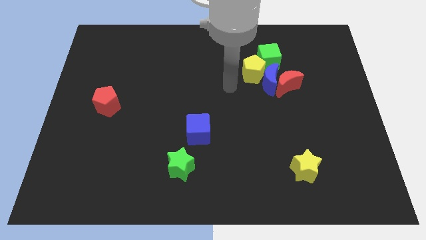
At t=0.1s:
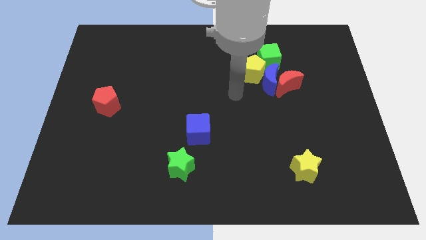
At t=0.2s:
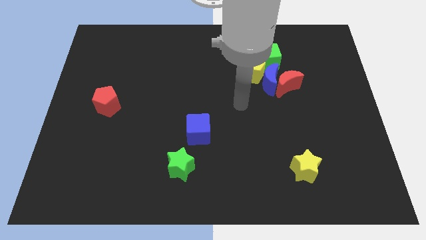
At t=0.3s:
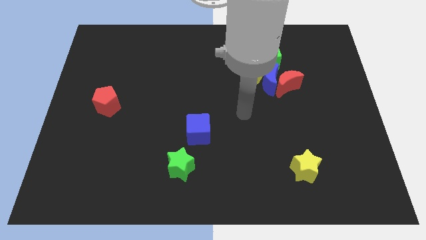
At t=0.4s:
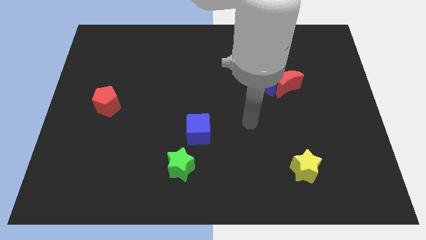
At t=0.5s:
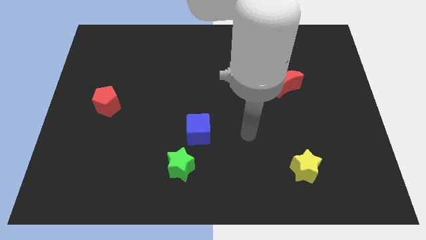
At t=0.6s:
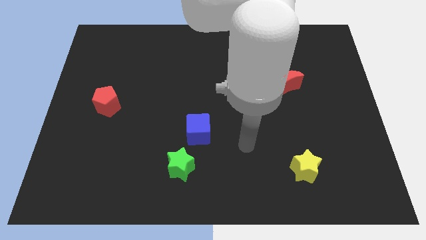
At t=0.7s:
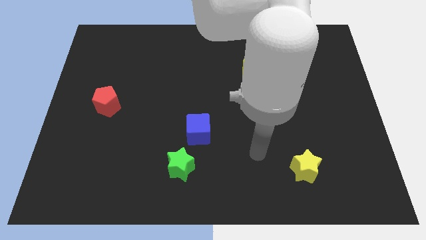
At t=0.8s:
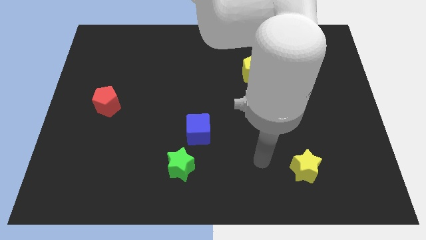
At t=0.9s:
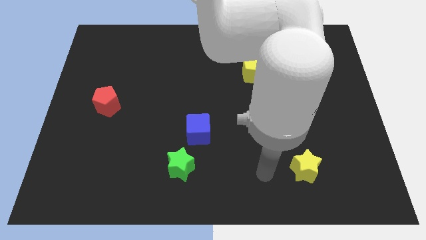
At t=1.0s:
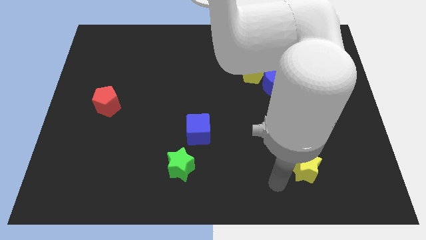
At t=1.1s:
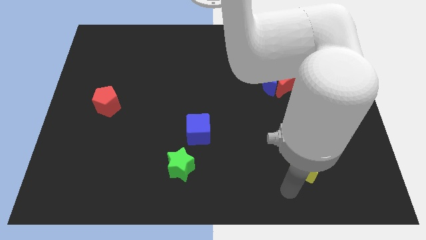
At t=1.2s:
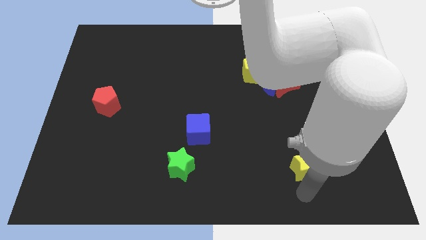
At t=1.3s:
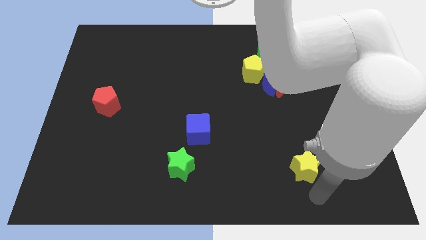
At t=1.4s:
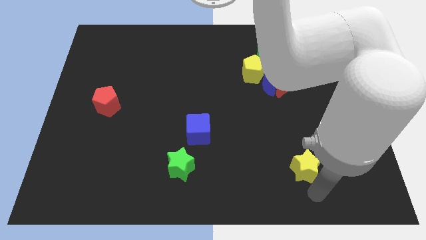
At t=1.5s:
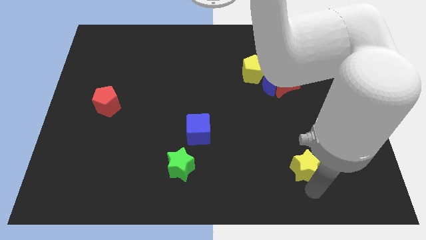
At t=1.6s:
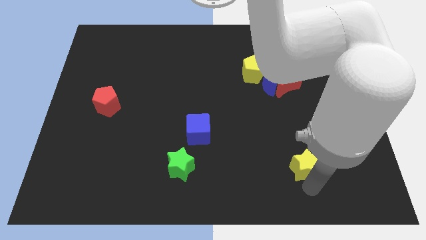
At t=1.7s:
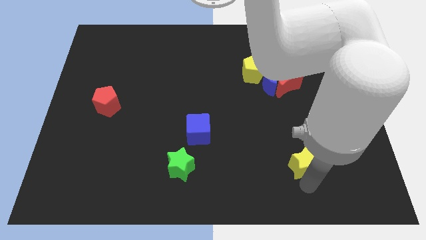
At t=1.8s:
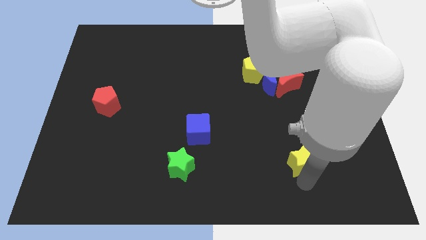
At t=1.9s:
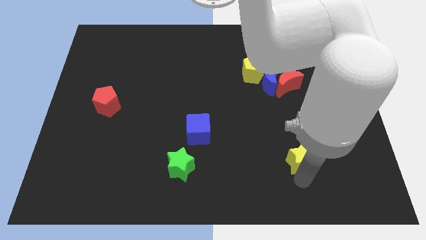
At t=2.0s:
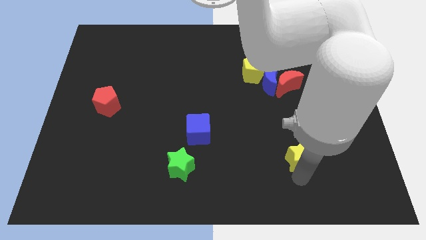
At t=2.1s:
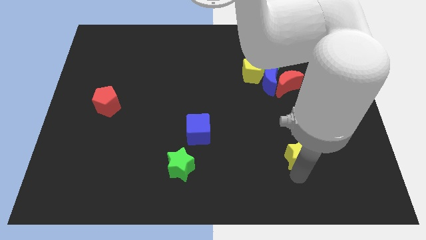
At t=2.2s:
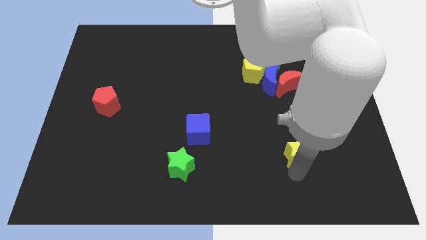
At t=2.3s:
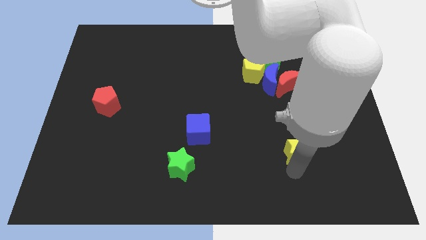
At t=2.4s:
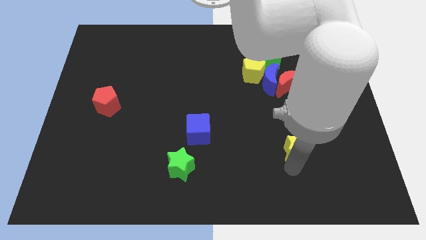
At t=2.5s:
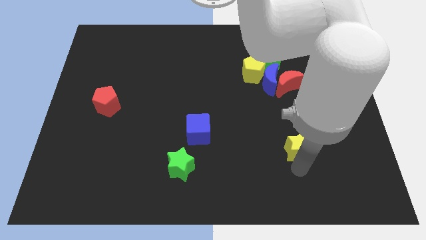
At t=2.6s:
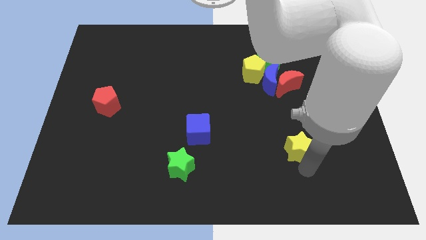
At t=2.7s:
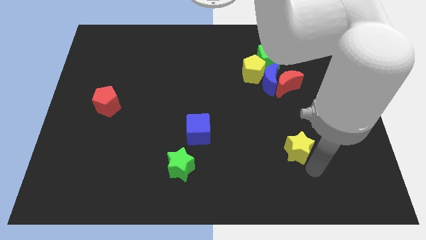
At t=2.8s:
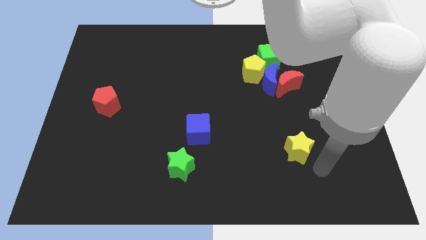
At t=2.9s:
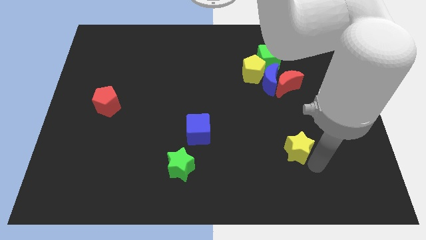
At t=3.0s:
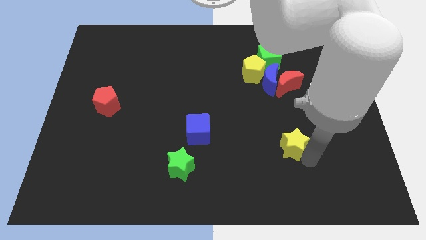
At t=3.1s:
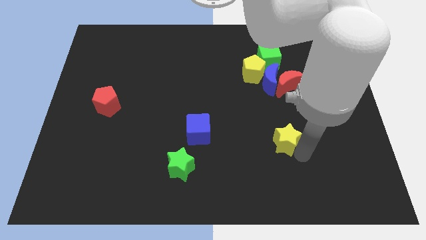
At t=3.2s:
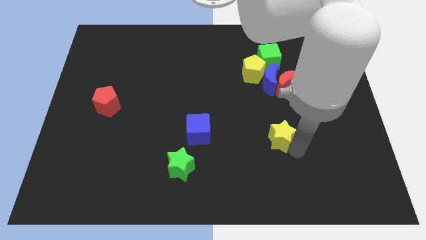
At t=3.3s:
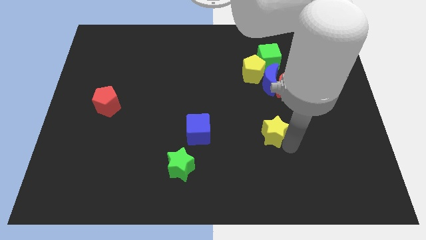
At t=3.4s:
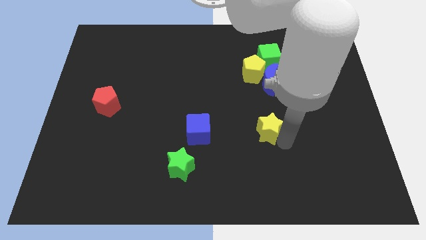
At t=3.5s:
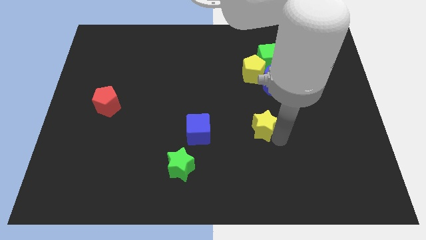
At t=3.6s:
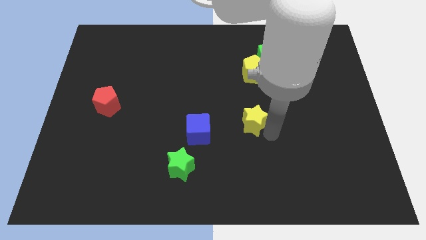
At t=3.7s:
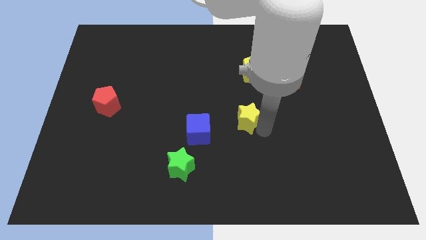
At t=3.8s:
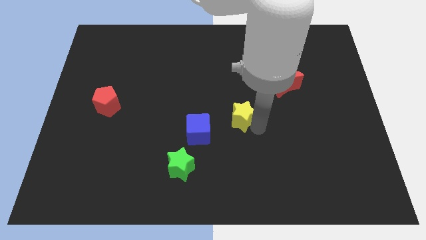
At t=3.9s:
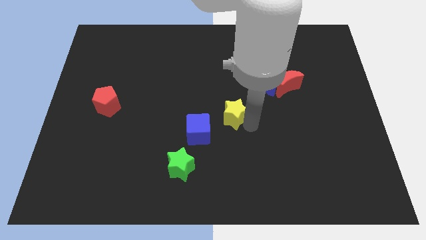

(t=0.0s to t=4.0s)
slide the yellow star up and to the left diagonally

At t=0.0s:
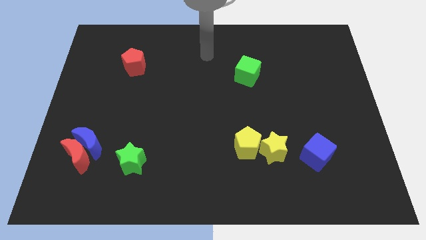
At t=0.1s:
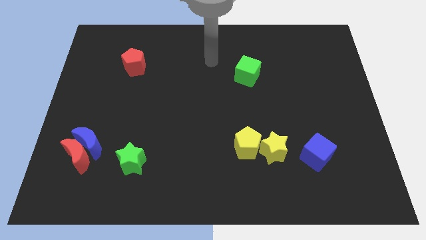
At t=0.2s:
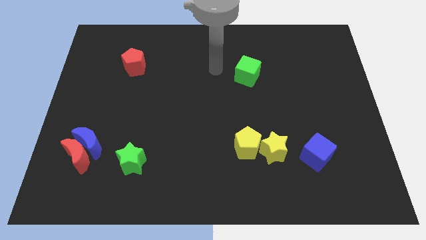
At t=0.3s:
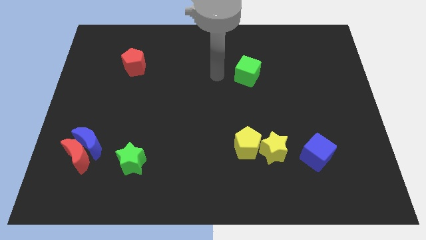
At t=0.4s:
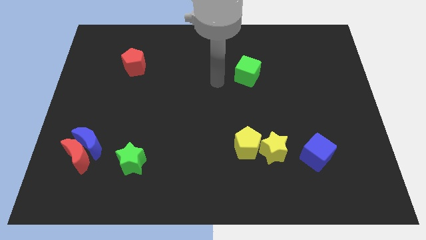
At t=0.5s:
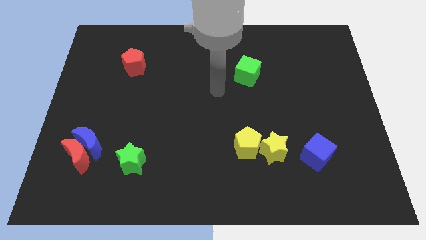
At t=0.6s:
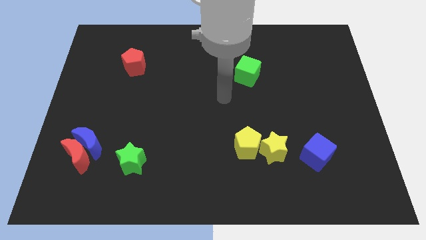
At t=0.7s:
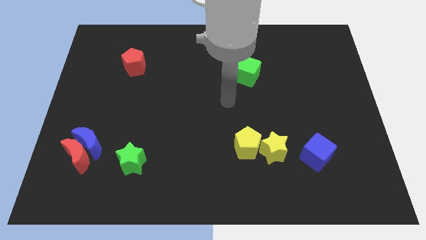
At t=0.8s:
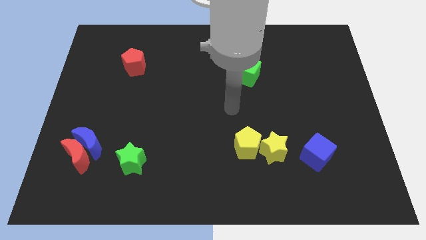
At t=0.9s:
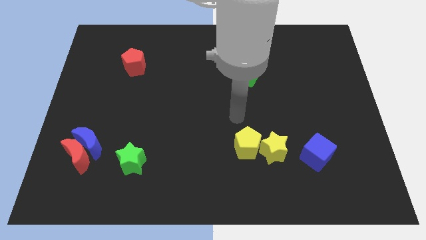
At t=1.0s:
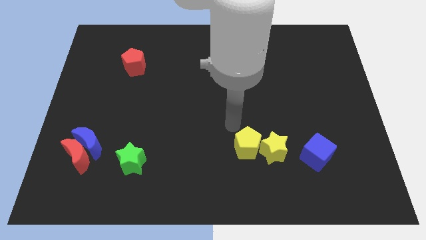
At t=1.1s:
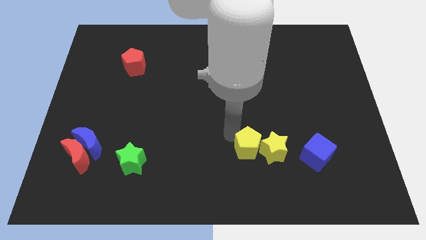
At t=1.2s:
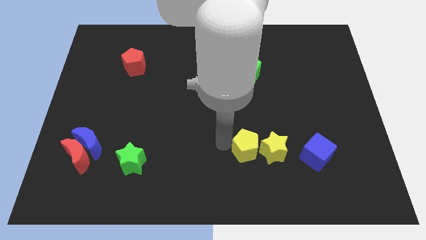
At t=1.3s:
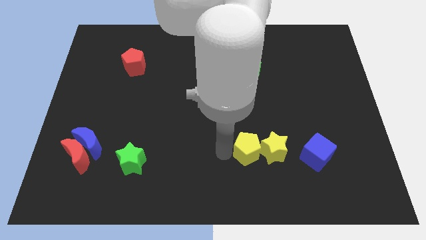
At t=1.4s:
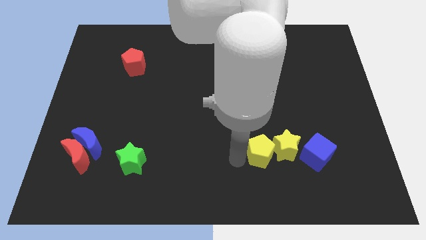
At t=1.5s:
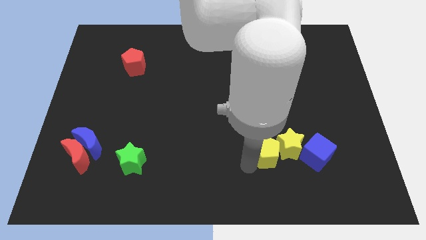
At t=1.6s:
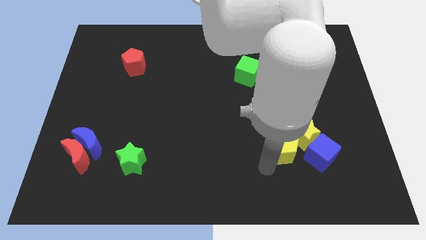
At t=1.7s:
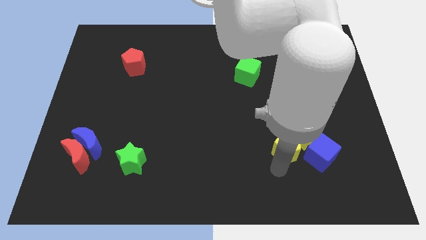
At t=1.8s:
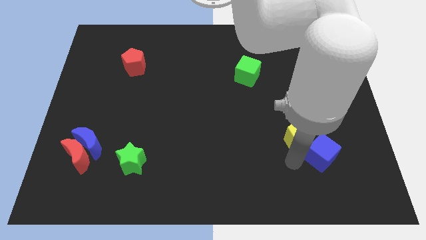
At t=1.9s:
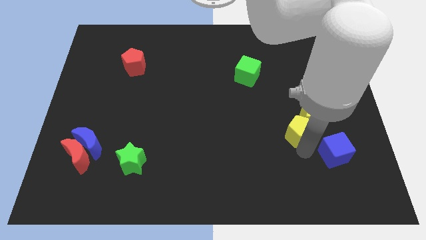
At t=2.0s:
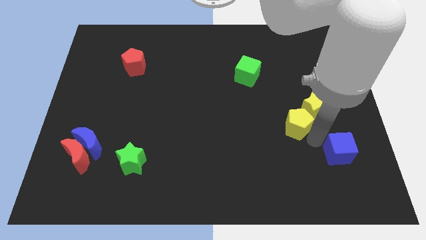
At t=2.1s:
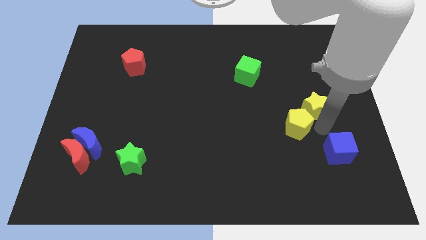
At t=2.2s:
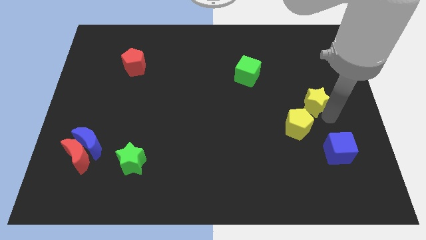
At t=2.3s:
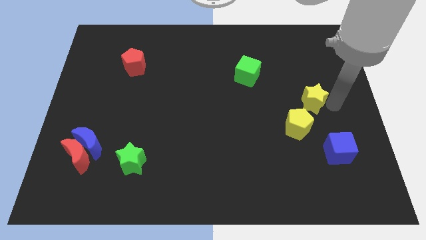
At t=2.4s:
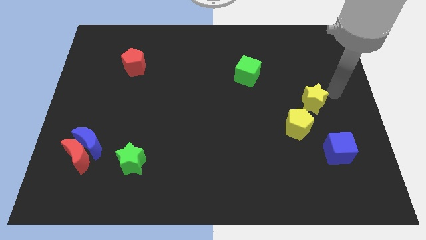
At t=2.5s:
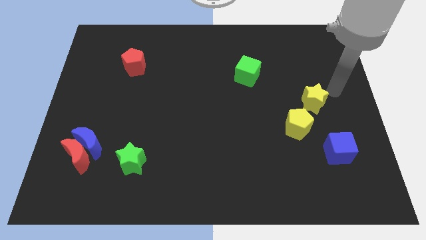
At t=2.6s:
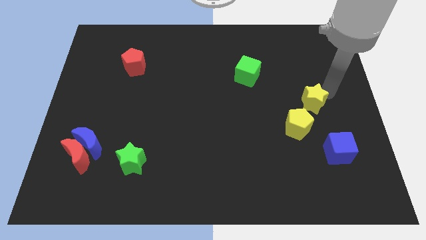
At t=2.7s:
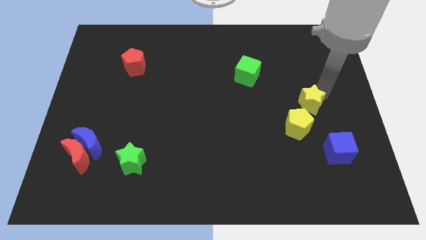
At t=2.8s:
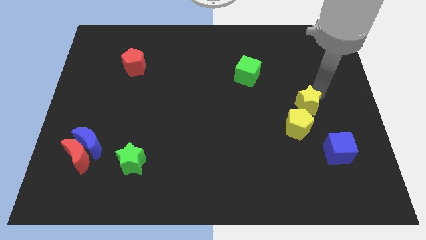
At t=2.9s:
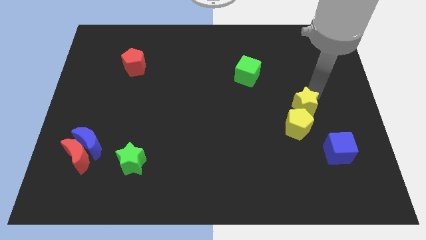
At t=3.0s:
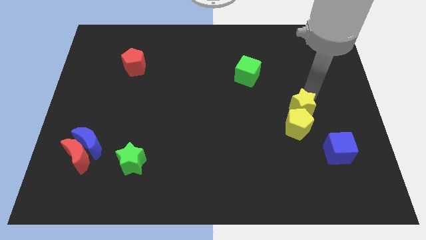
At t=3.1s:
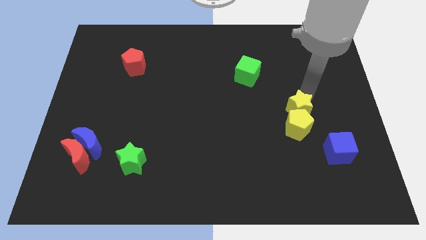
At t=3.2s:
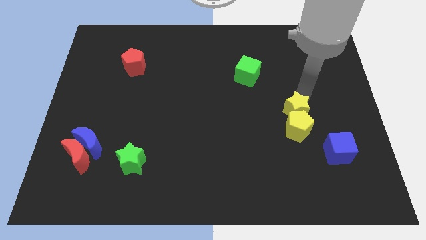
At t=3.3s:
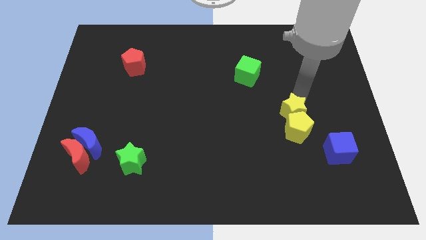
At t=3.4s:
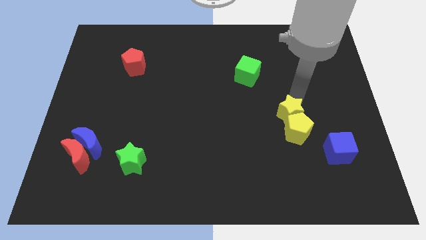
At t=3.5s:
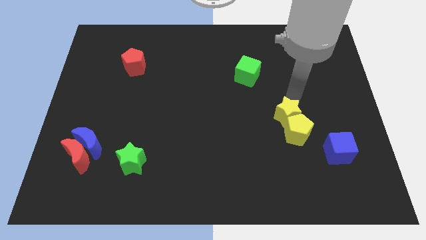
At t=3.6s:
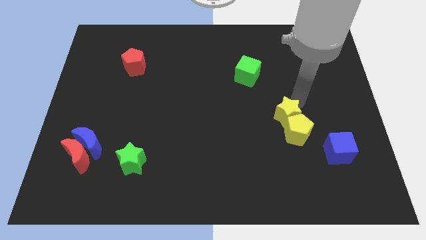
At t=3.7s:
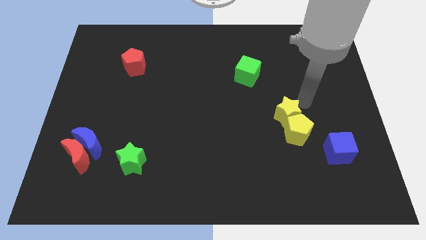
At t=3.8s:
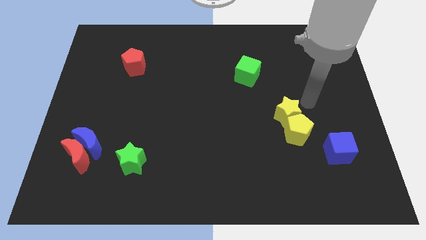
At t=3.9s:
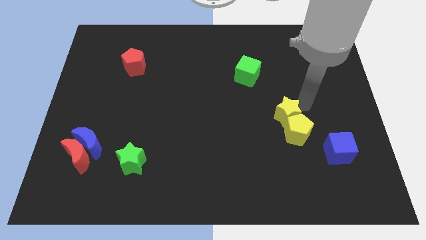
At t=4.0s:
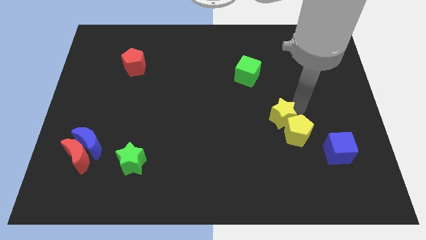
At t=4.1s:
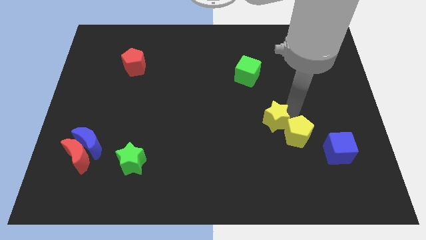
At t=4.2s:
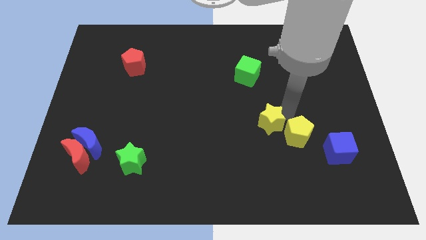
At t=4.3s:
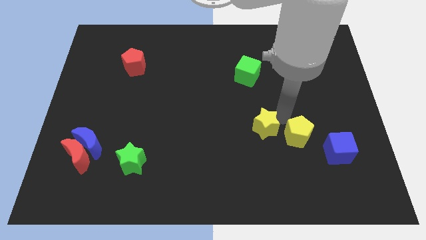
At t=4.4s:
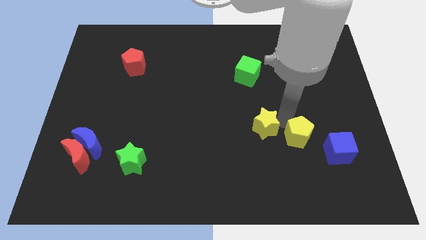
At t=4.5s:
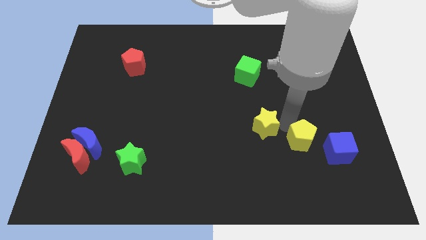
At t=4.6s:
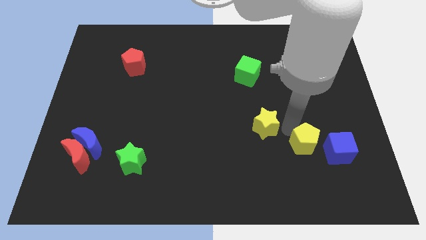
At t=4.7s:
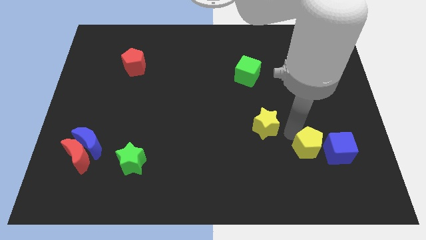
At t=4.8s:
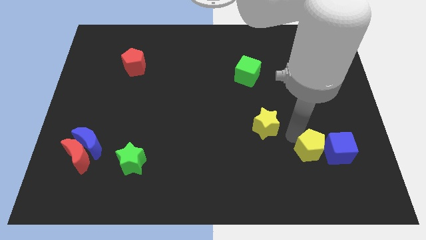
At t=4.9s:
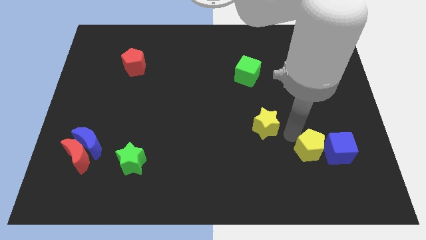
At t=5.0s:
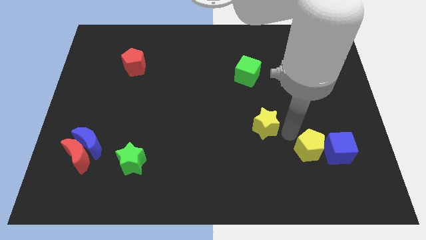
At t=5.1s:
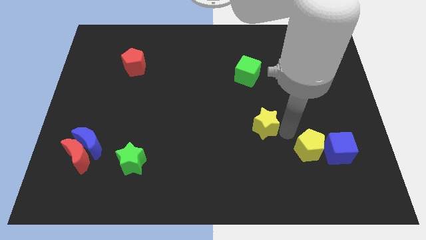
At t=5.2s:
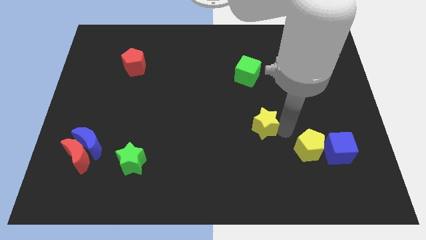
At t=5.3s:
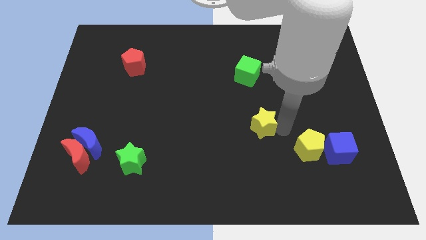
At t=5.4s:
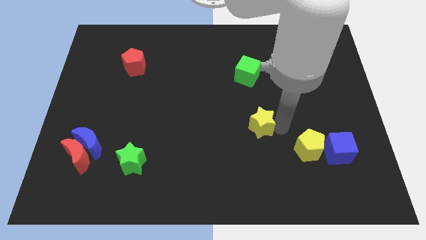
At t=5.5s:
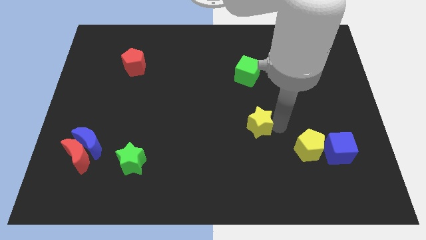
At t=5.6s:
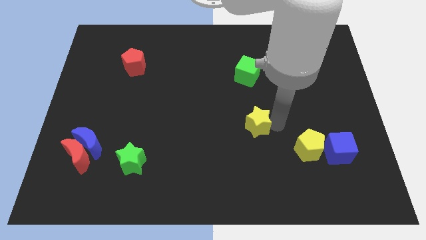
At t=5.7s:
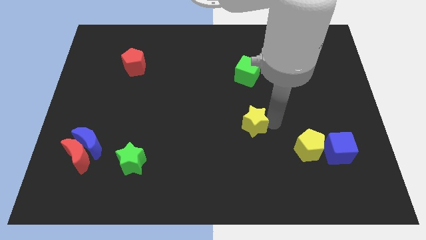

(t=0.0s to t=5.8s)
slightly slide the yellow star up and to the left diagonally
